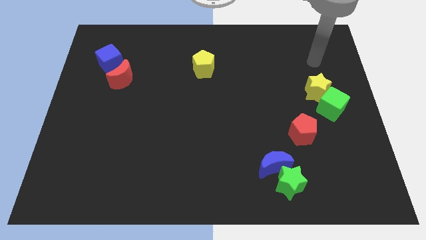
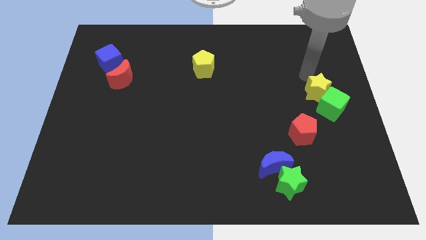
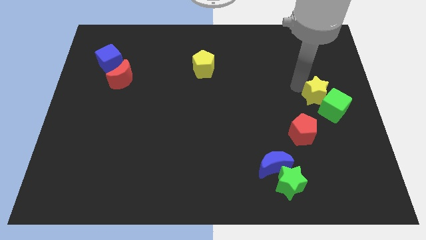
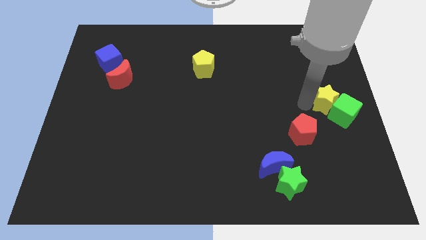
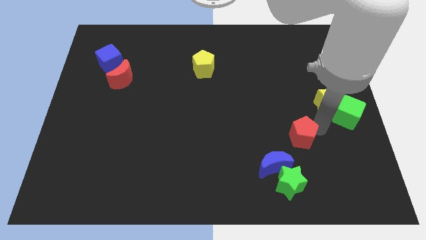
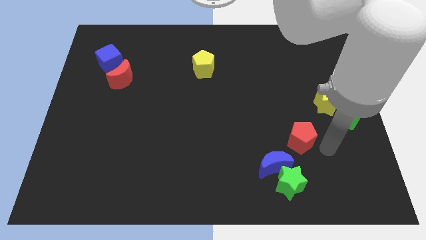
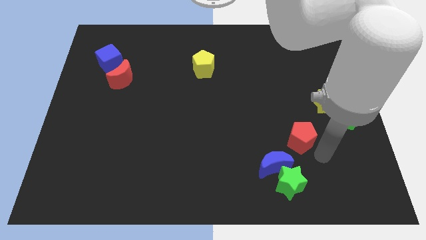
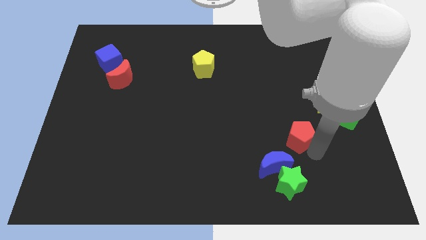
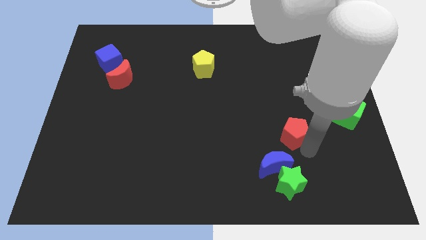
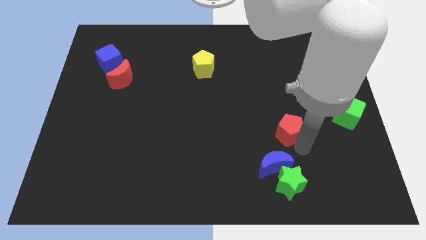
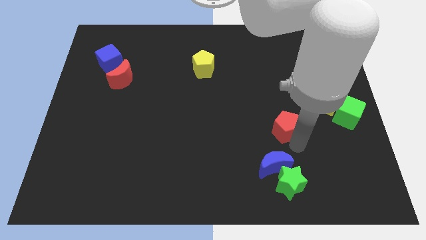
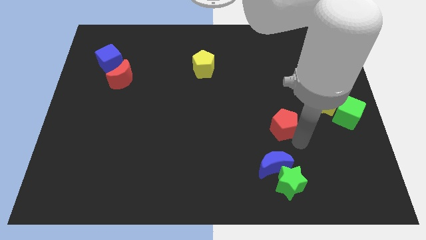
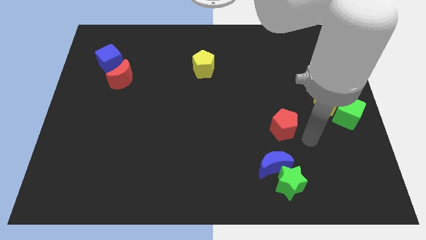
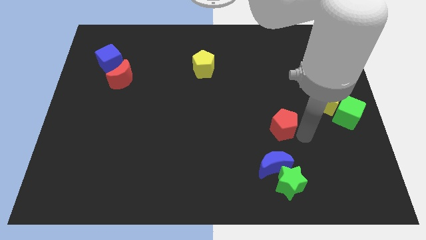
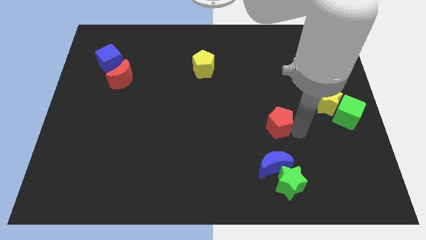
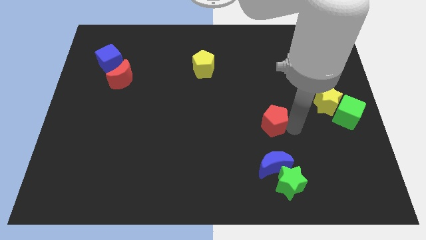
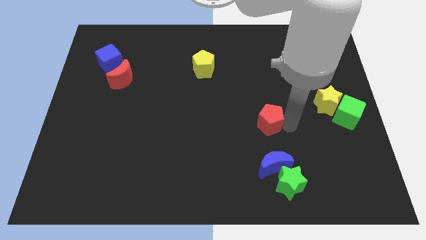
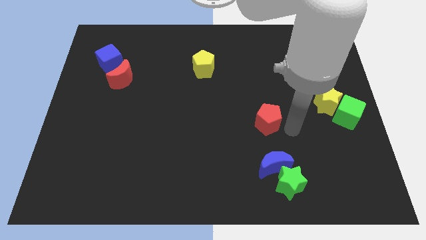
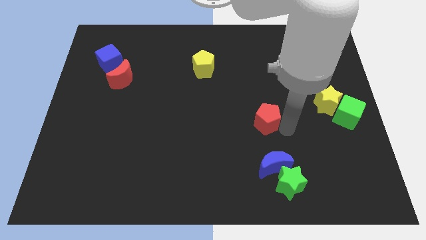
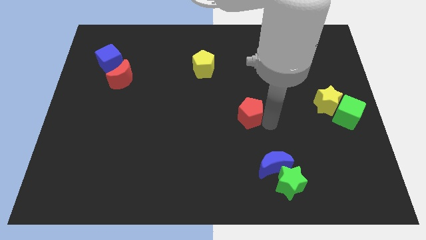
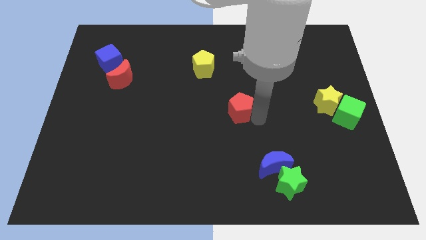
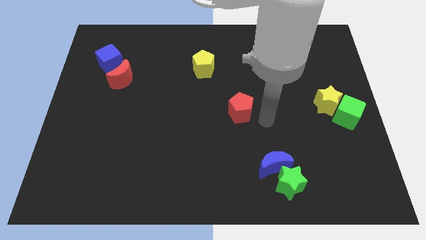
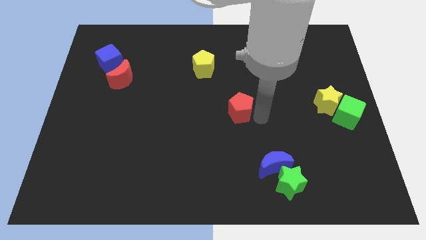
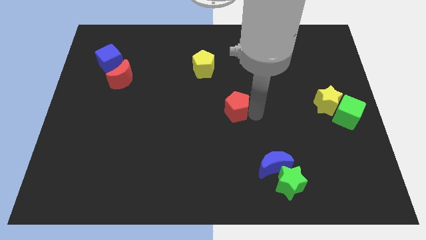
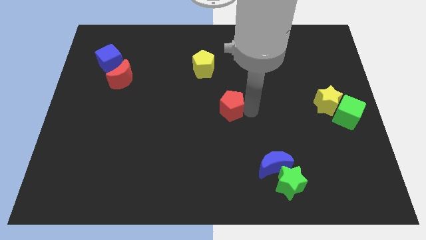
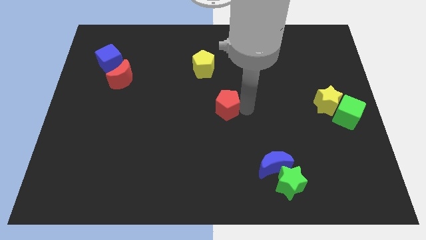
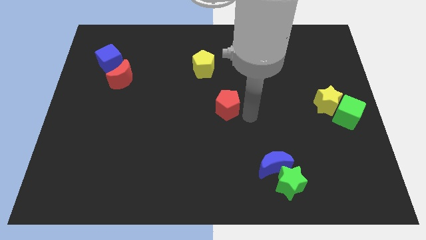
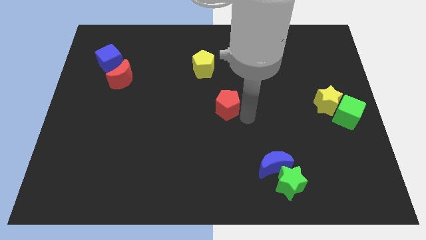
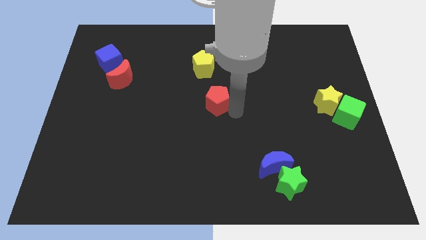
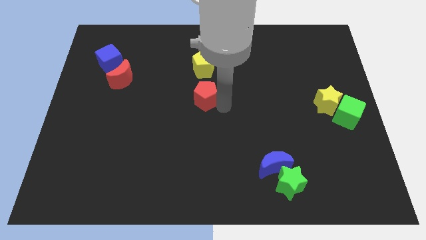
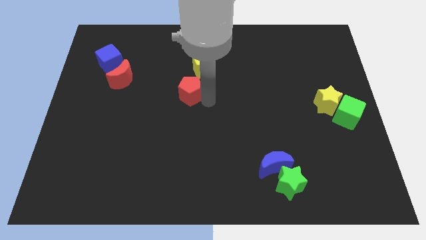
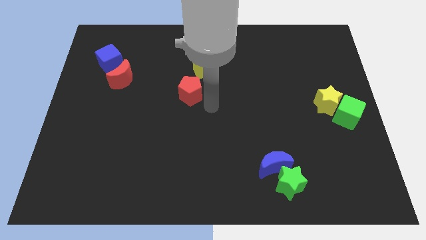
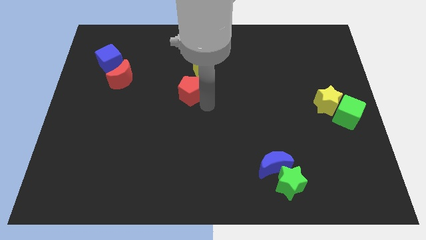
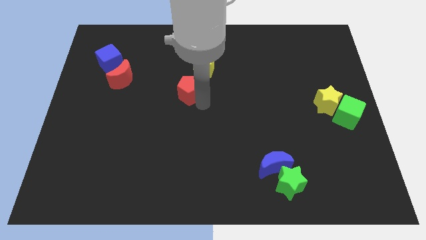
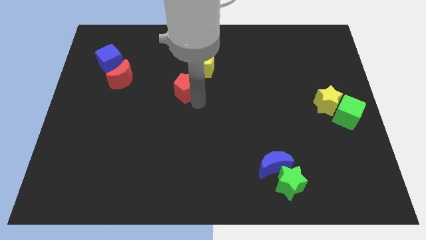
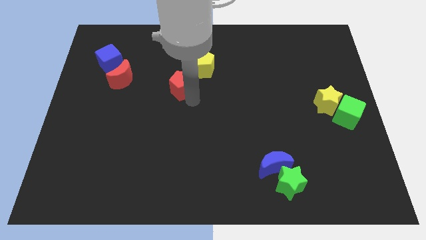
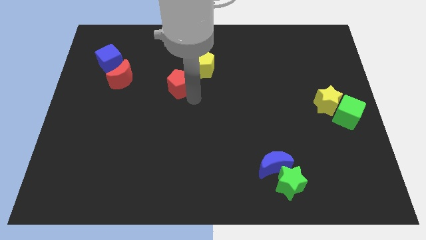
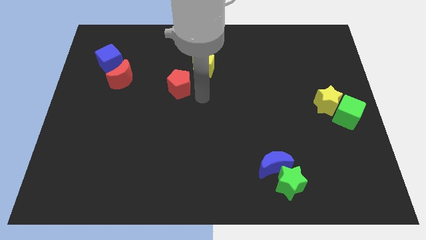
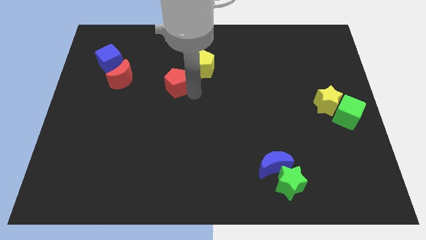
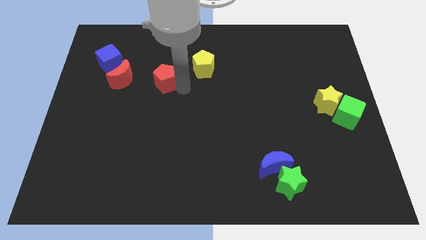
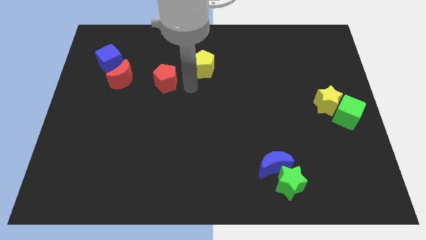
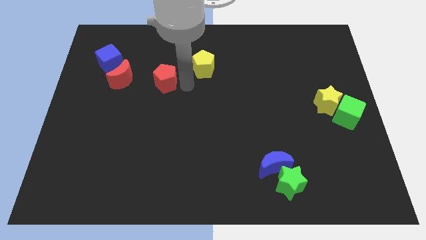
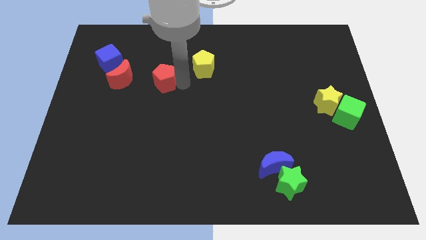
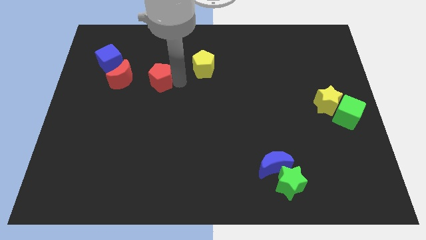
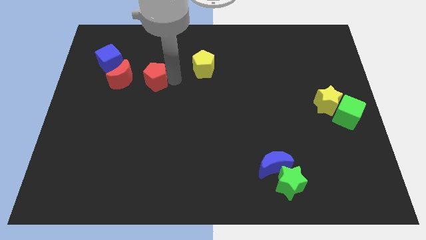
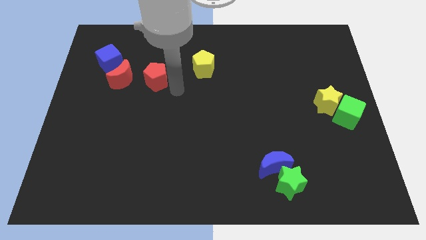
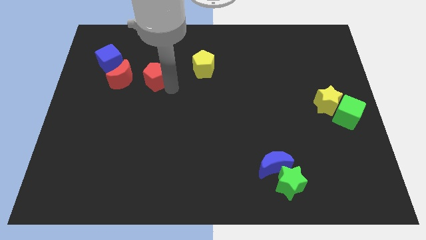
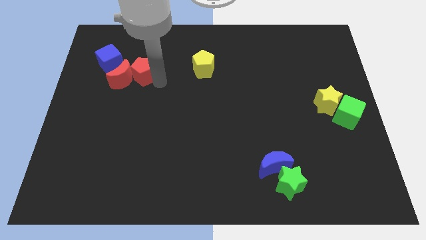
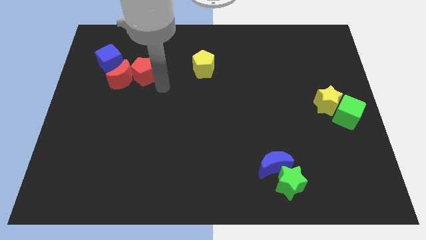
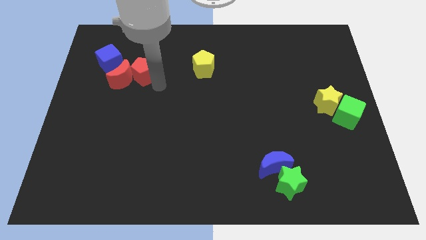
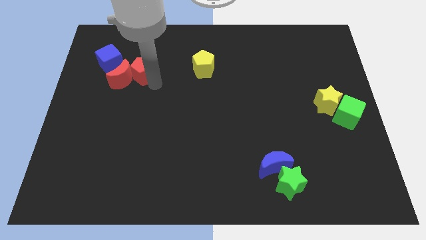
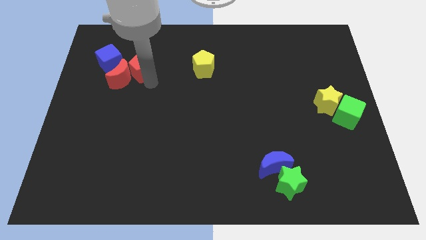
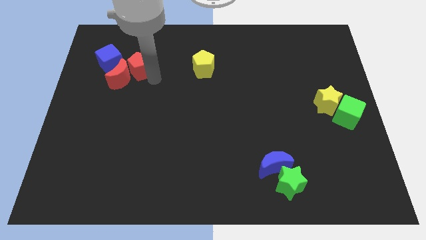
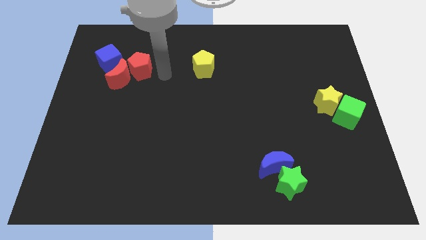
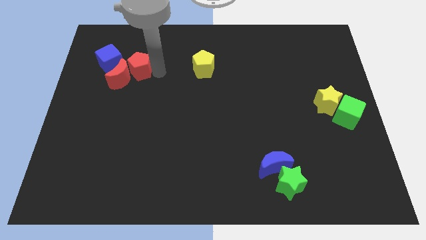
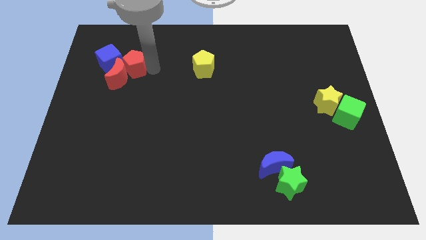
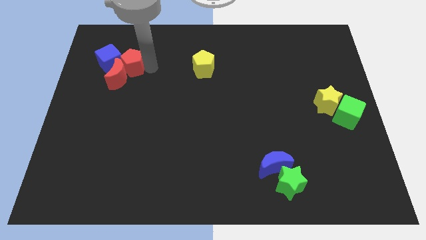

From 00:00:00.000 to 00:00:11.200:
slide the red pentagon towards the blue cube

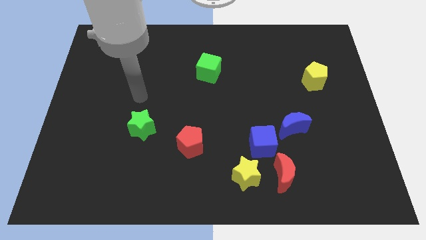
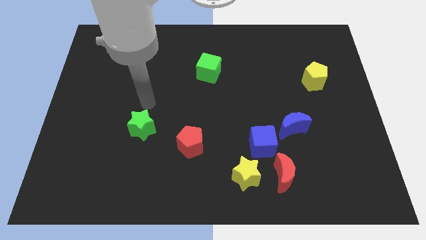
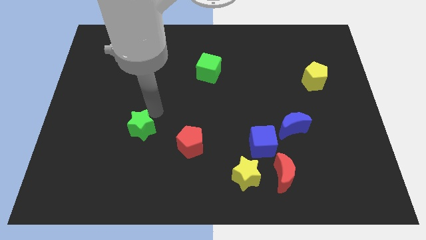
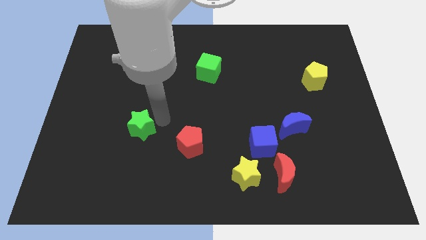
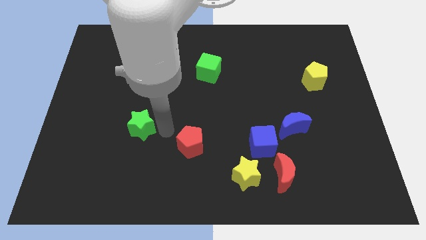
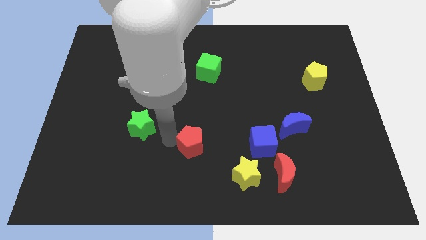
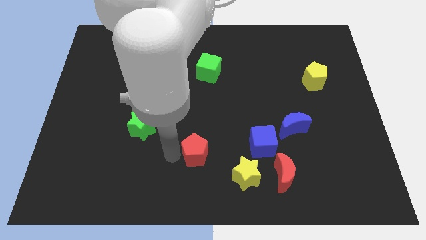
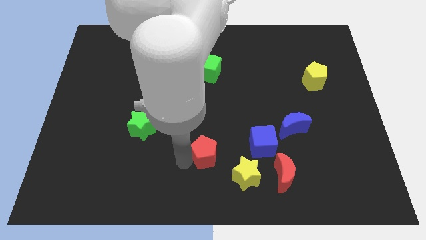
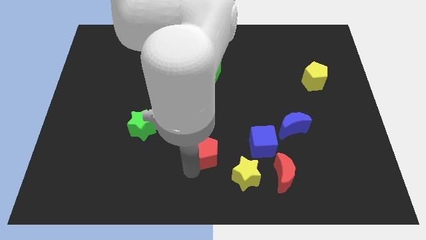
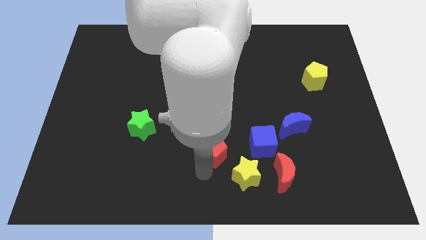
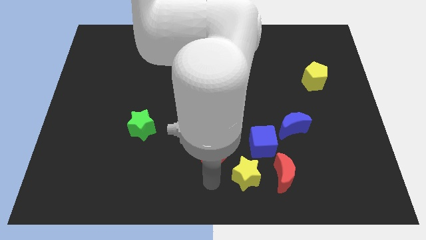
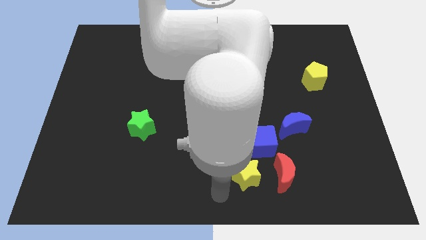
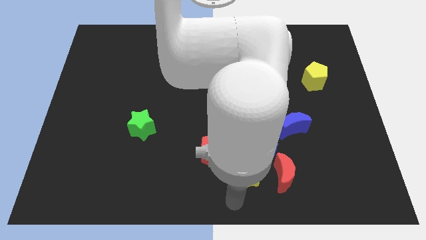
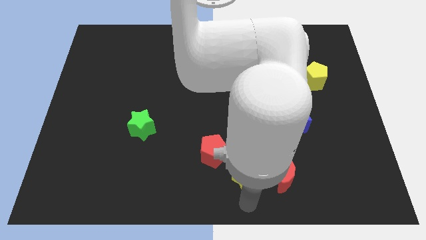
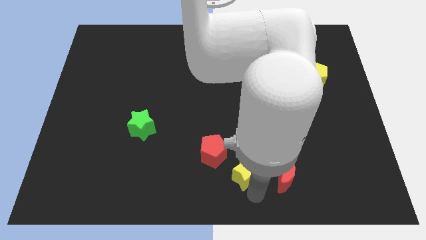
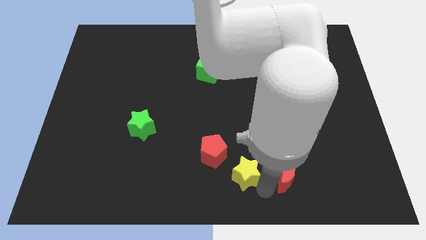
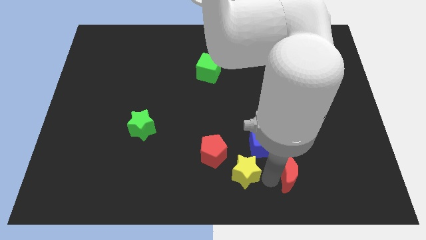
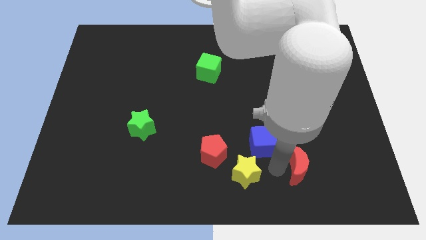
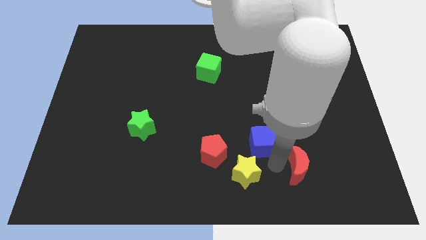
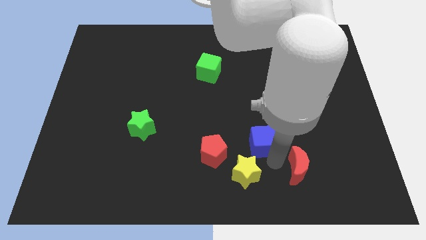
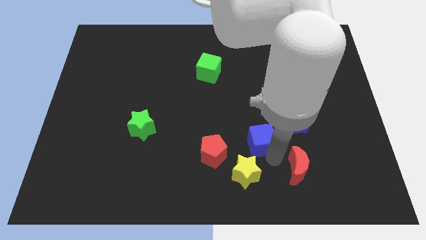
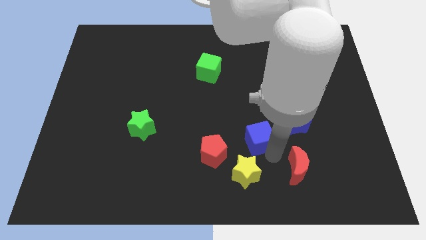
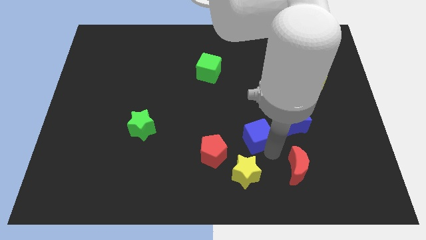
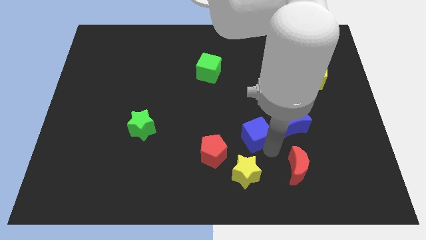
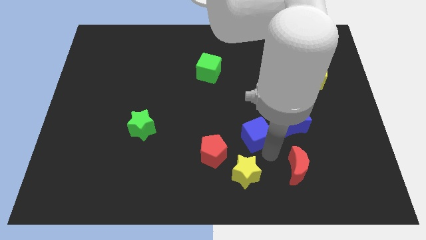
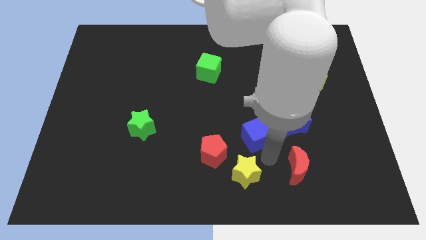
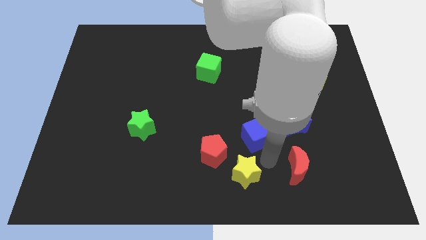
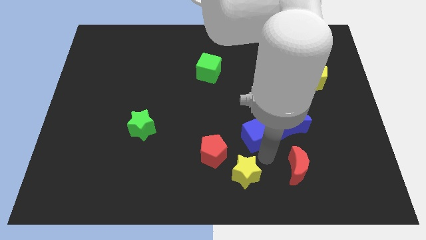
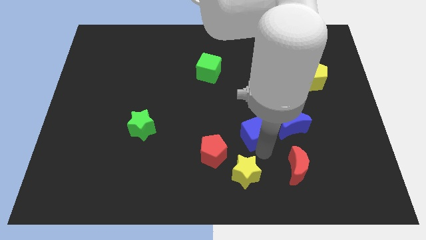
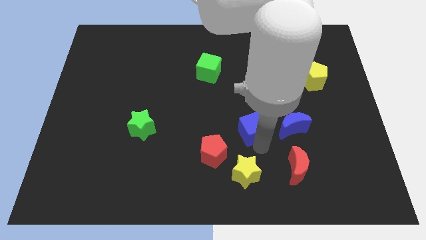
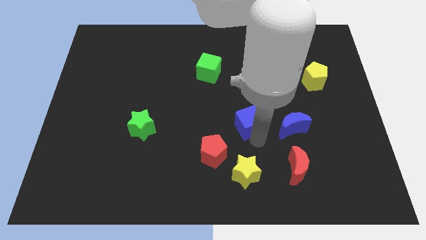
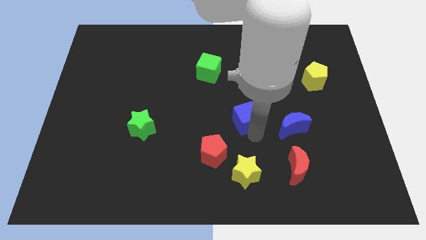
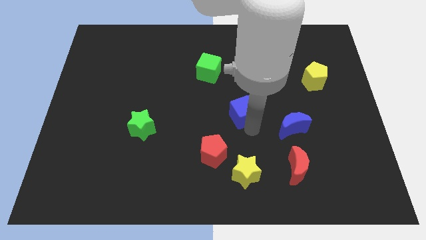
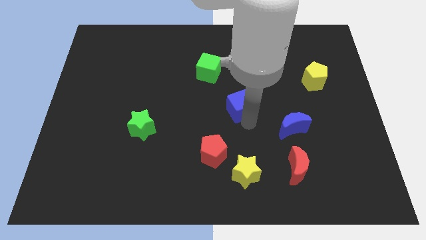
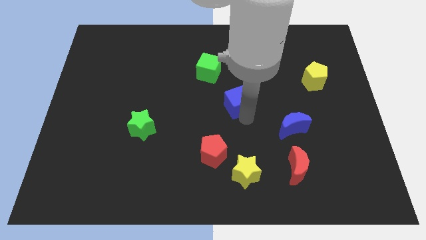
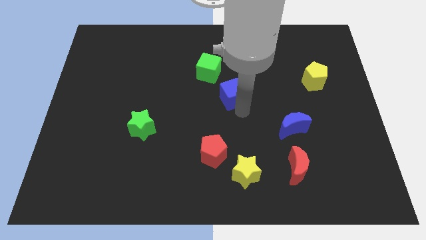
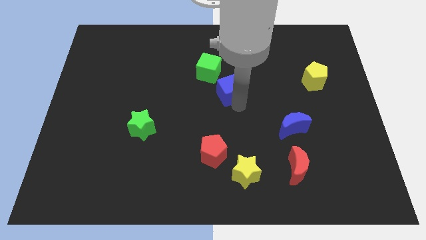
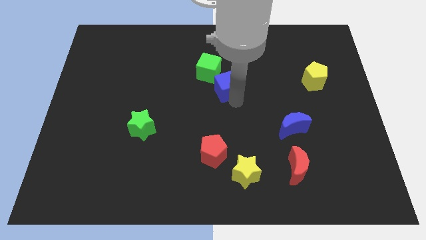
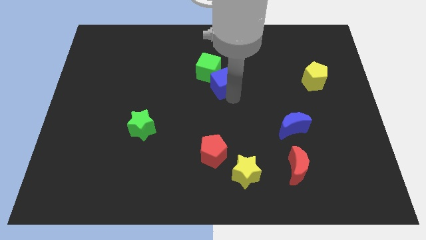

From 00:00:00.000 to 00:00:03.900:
put the blue cube close to the green cube
